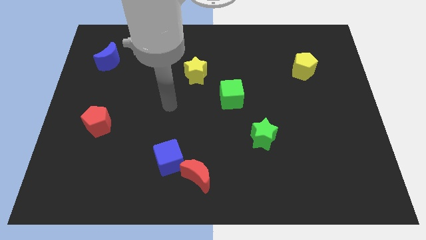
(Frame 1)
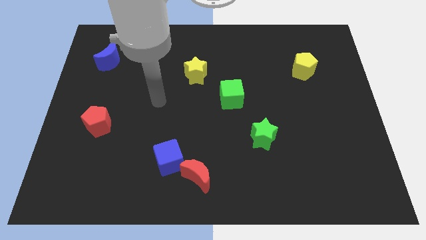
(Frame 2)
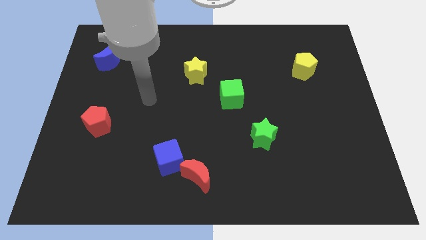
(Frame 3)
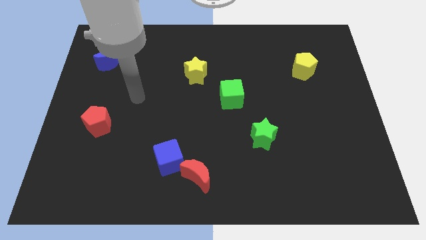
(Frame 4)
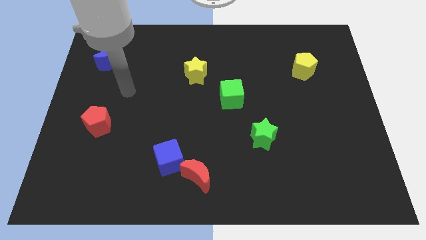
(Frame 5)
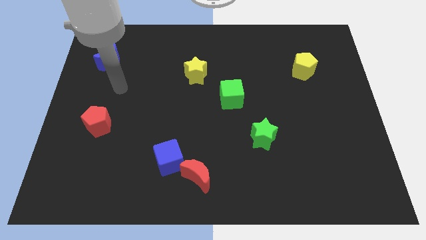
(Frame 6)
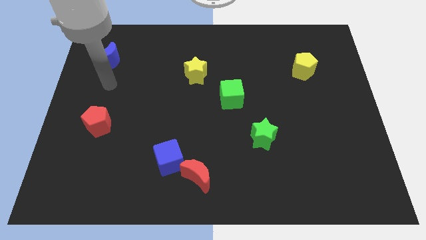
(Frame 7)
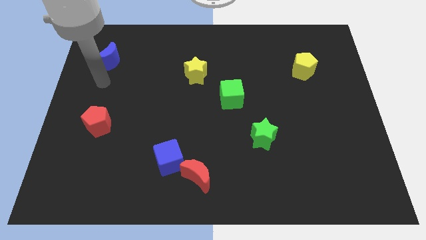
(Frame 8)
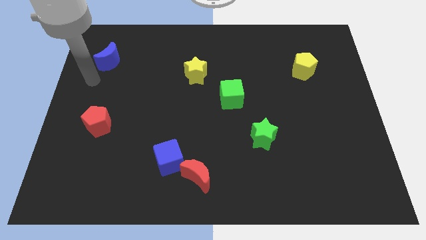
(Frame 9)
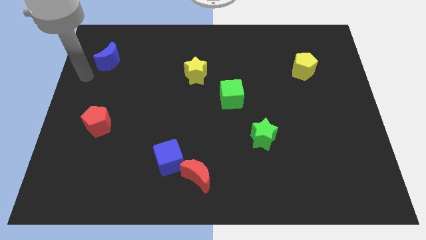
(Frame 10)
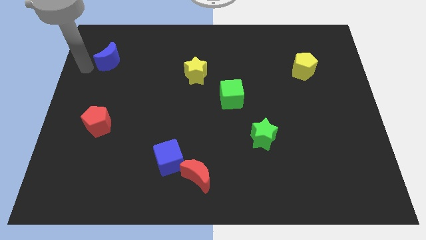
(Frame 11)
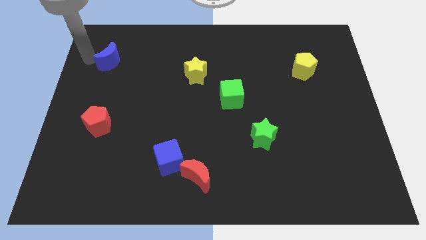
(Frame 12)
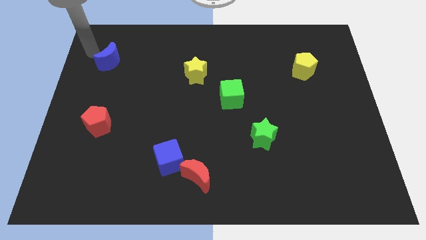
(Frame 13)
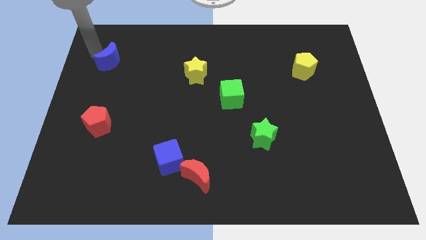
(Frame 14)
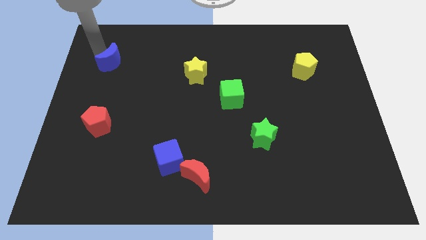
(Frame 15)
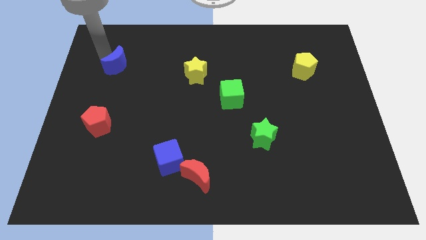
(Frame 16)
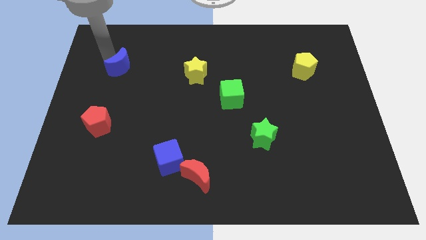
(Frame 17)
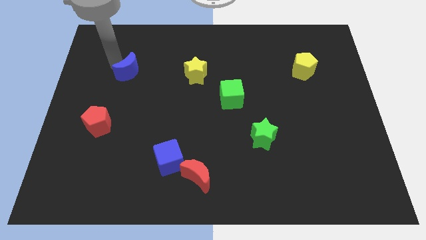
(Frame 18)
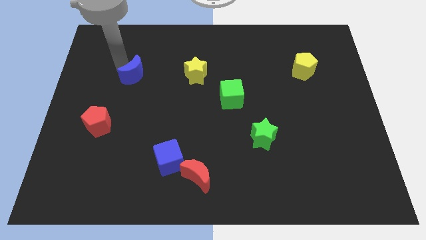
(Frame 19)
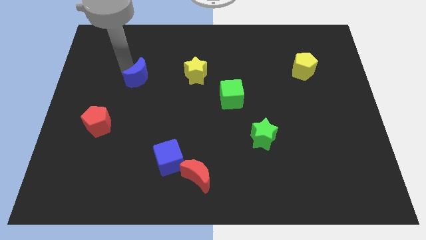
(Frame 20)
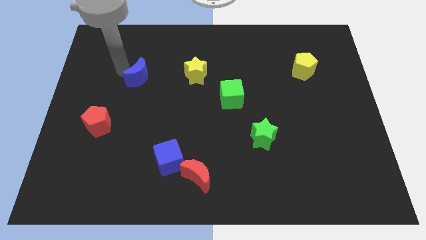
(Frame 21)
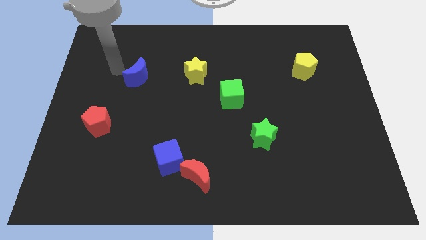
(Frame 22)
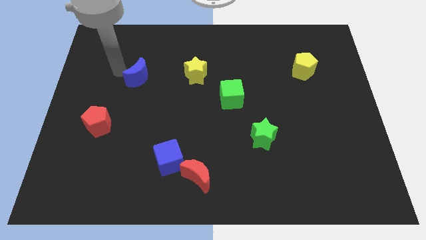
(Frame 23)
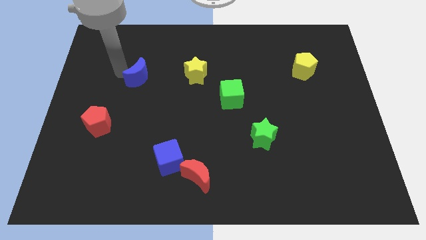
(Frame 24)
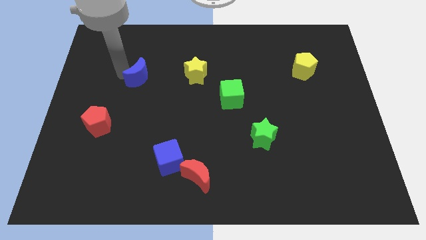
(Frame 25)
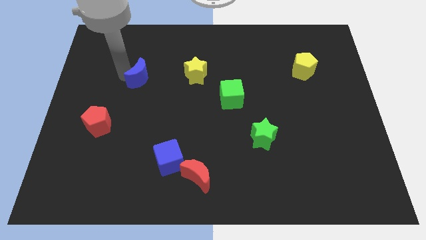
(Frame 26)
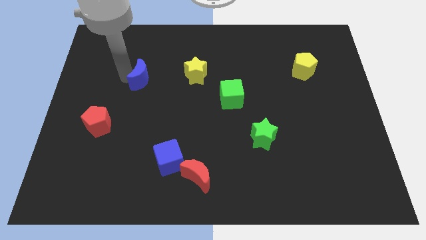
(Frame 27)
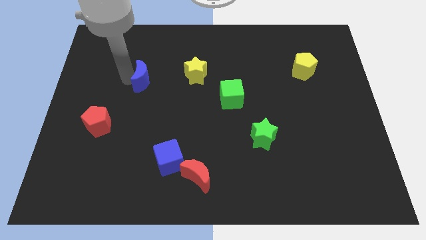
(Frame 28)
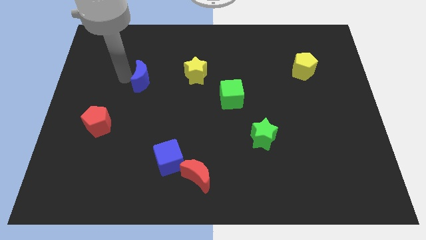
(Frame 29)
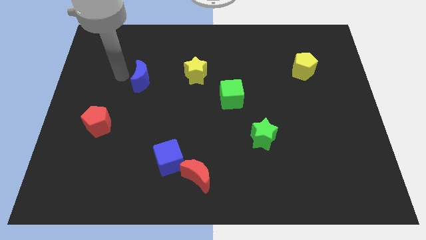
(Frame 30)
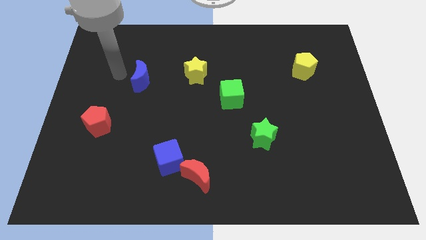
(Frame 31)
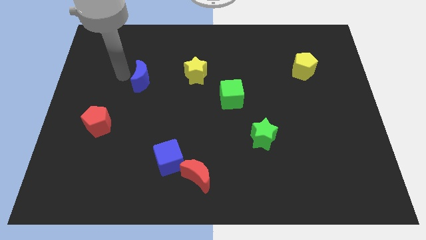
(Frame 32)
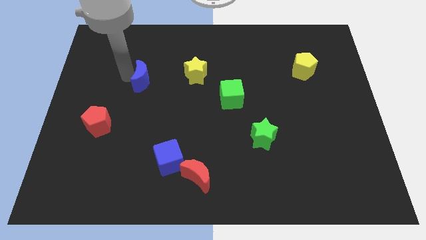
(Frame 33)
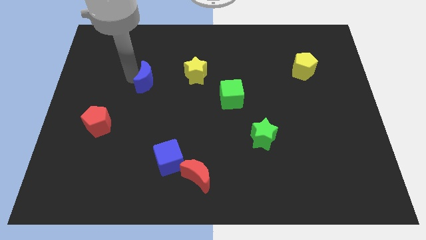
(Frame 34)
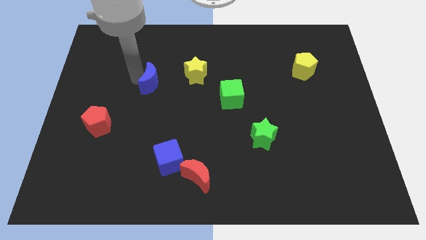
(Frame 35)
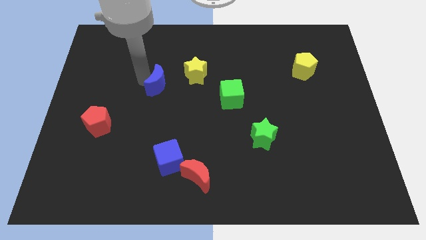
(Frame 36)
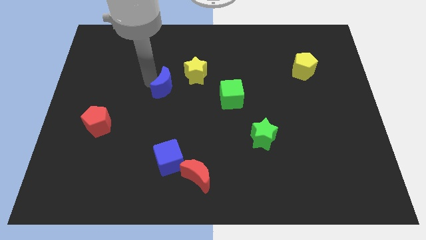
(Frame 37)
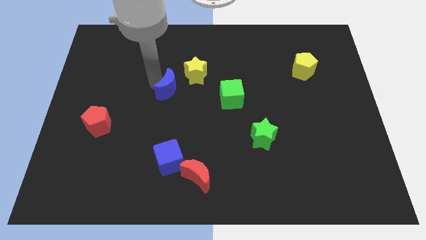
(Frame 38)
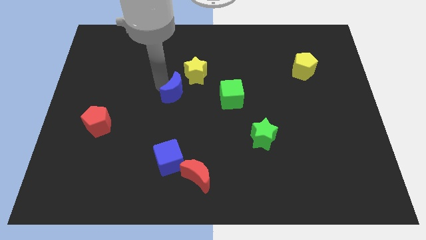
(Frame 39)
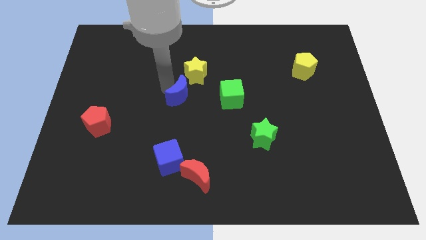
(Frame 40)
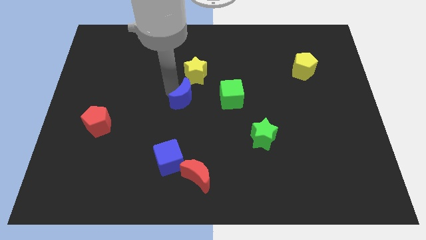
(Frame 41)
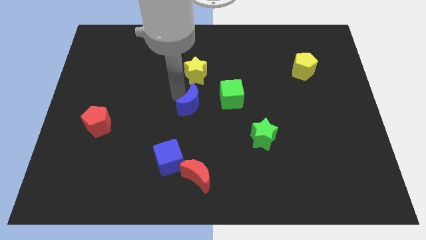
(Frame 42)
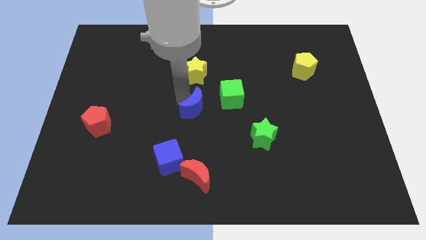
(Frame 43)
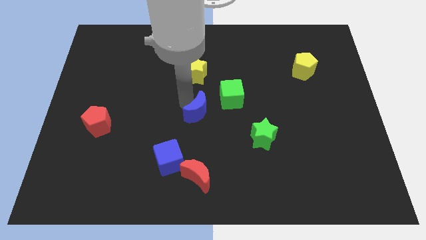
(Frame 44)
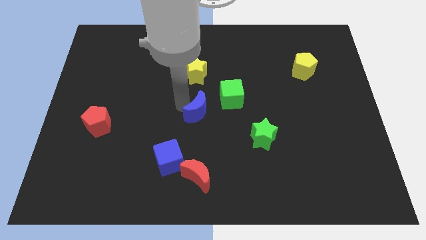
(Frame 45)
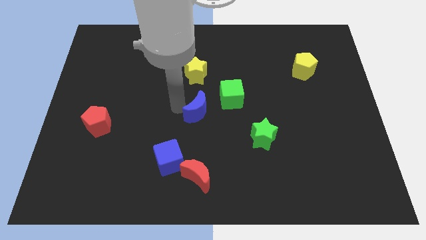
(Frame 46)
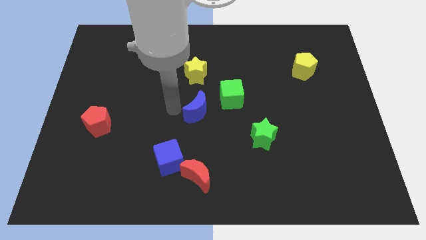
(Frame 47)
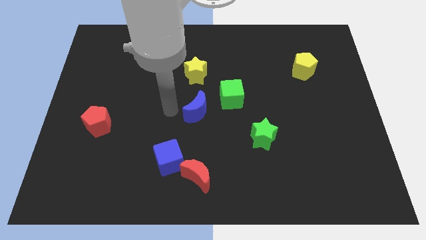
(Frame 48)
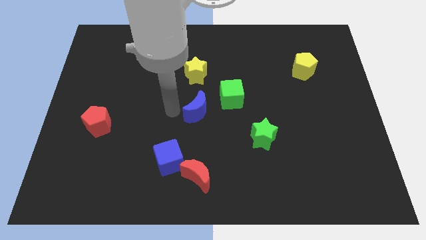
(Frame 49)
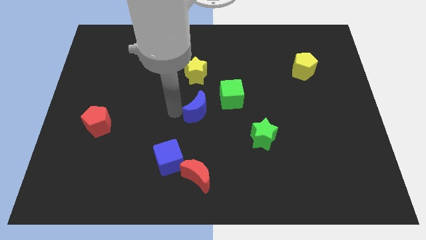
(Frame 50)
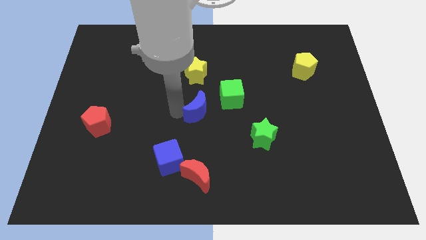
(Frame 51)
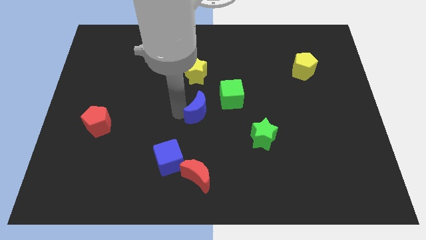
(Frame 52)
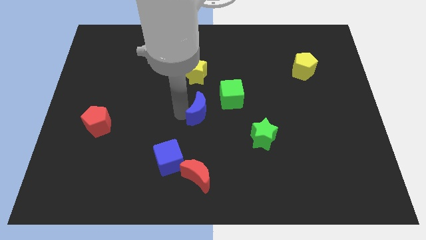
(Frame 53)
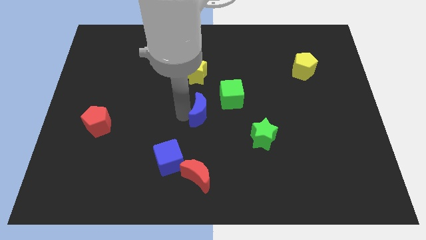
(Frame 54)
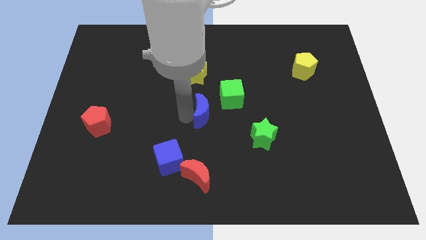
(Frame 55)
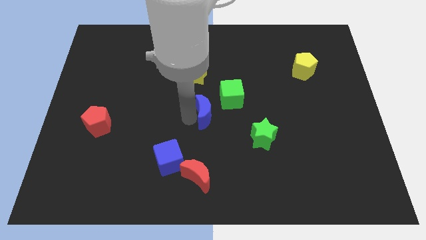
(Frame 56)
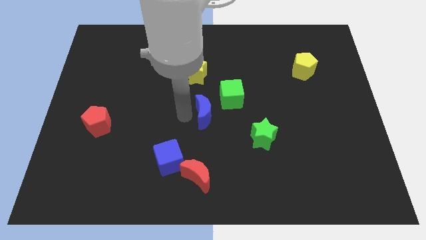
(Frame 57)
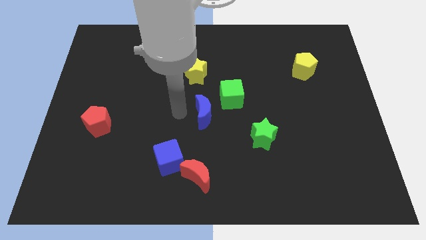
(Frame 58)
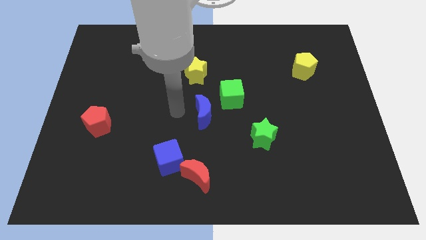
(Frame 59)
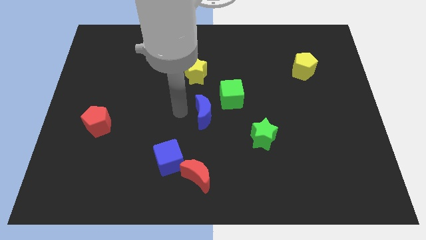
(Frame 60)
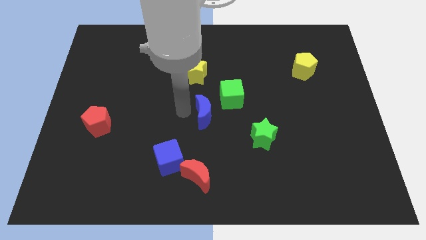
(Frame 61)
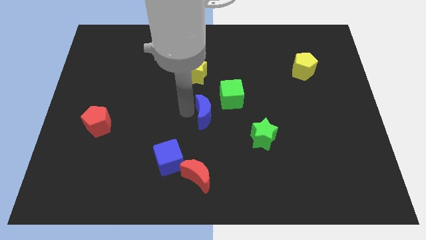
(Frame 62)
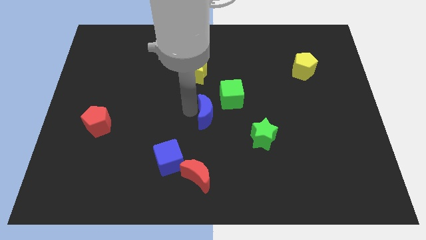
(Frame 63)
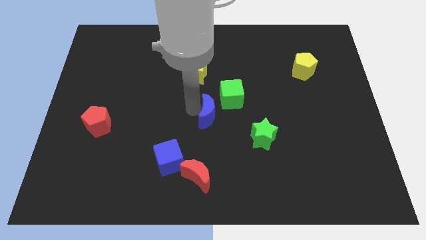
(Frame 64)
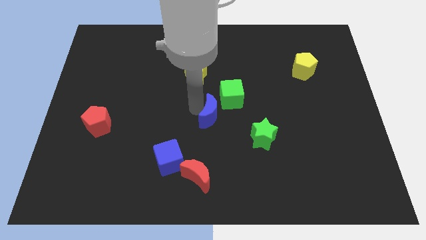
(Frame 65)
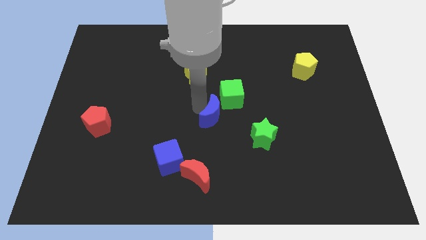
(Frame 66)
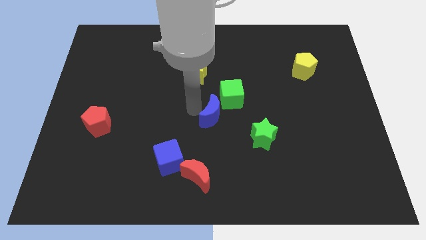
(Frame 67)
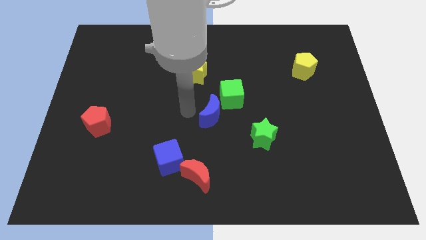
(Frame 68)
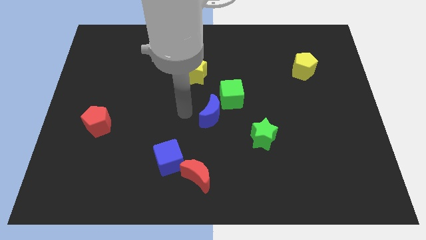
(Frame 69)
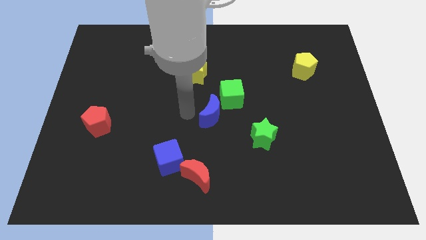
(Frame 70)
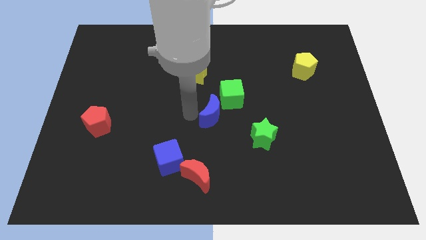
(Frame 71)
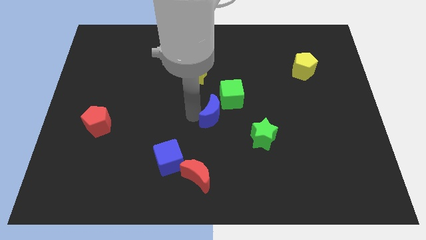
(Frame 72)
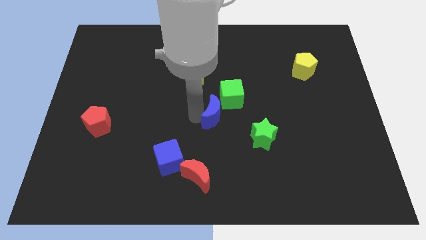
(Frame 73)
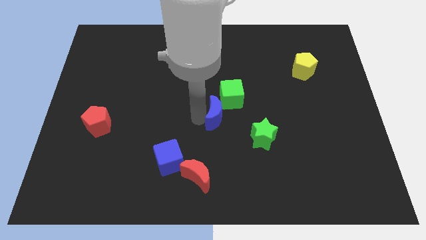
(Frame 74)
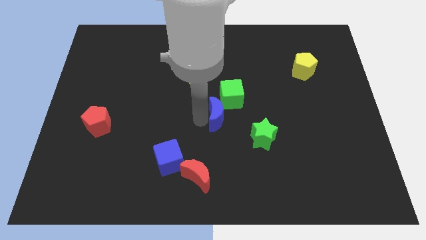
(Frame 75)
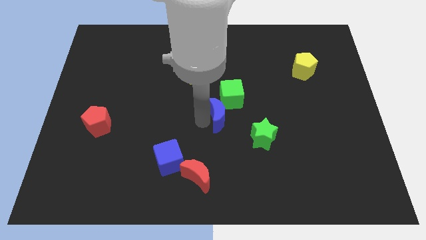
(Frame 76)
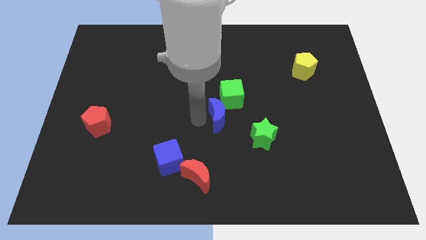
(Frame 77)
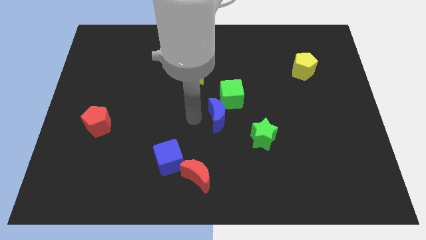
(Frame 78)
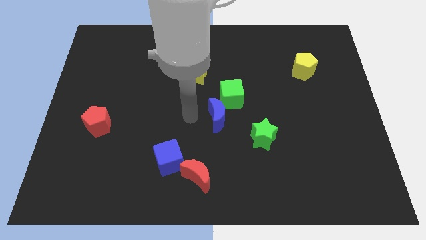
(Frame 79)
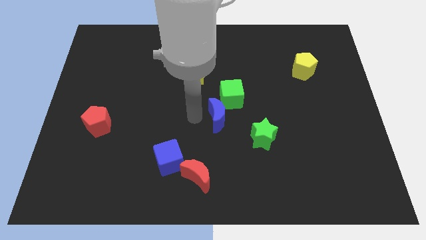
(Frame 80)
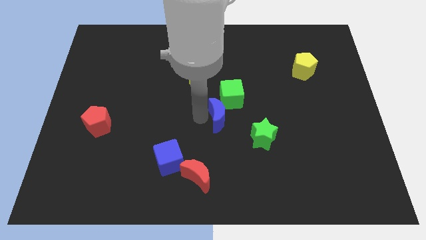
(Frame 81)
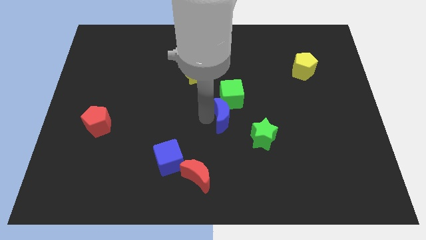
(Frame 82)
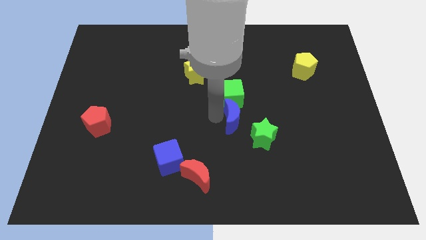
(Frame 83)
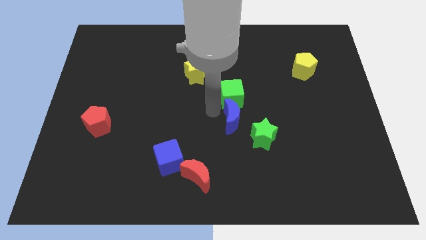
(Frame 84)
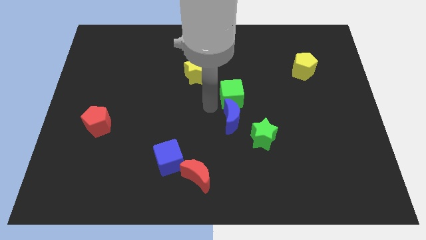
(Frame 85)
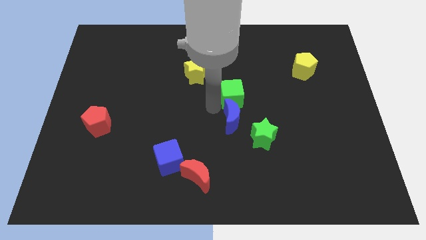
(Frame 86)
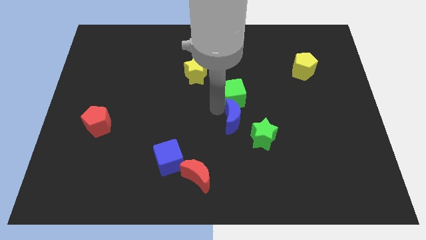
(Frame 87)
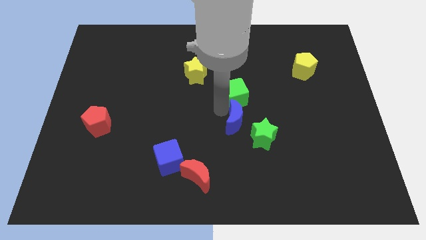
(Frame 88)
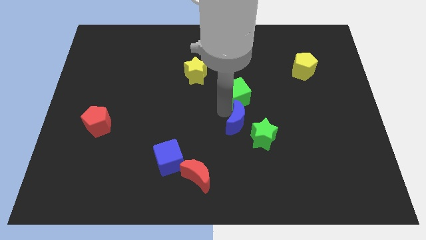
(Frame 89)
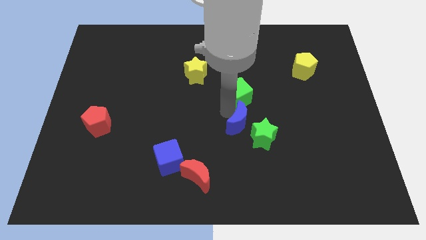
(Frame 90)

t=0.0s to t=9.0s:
slide the blue moon towards the green star
